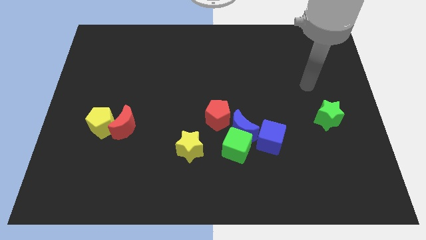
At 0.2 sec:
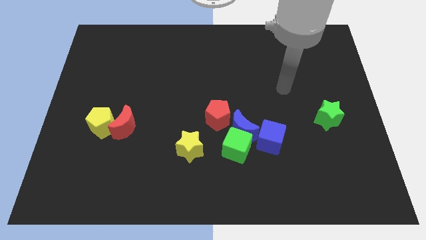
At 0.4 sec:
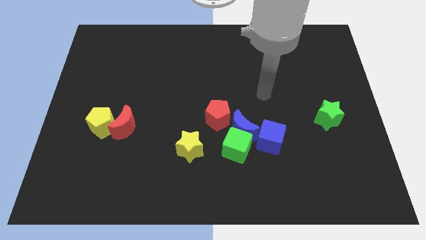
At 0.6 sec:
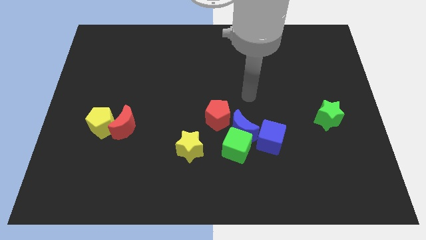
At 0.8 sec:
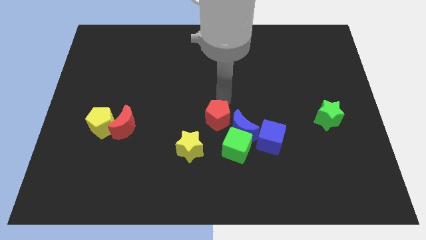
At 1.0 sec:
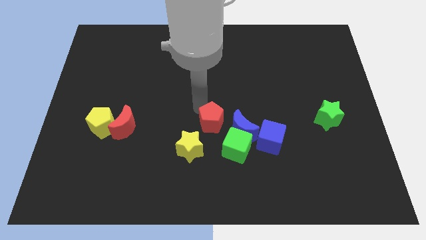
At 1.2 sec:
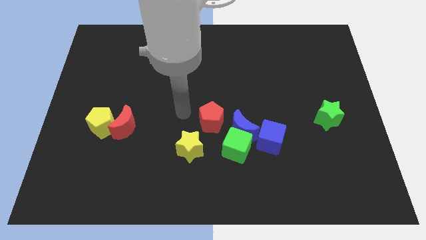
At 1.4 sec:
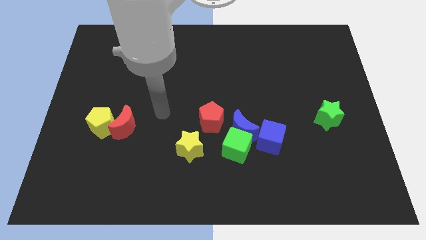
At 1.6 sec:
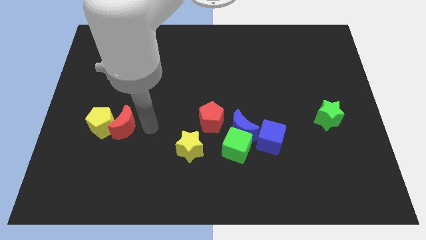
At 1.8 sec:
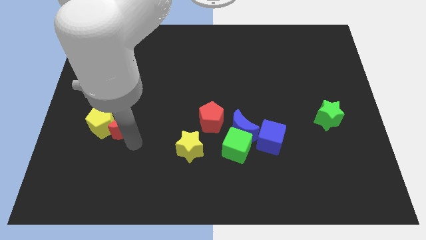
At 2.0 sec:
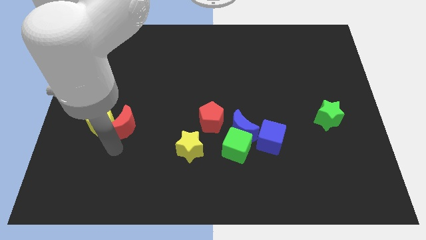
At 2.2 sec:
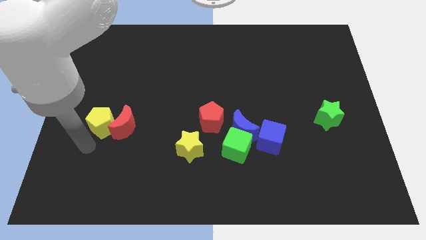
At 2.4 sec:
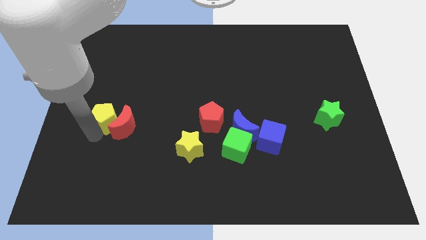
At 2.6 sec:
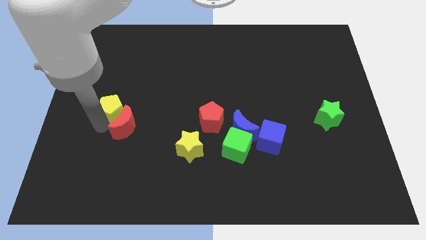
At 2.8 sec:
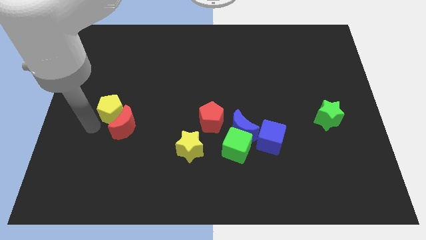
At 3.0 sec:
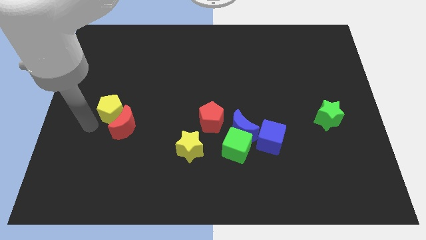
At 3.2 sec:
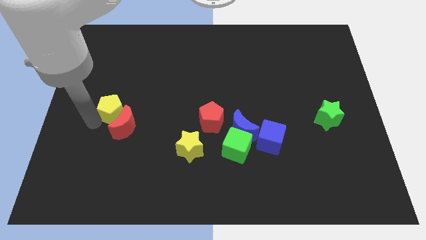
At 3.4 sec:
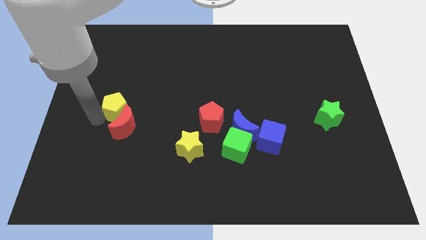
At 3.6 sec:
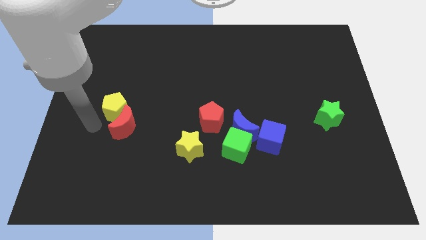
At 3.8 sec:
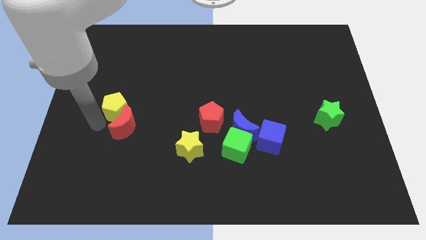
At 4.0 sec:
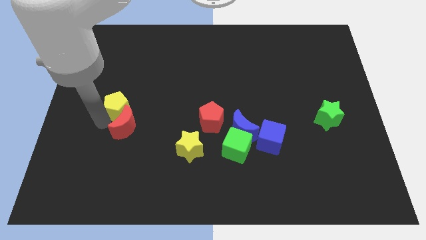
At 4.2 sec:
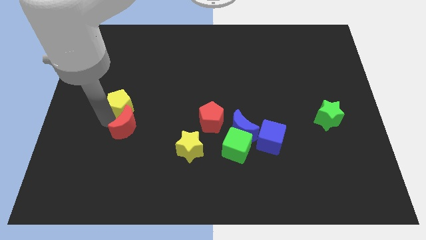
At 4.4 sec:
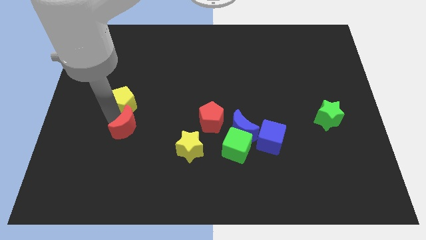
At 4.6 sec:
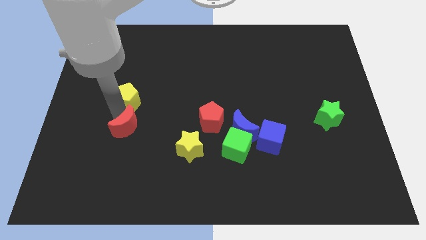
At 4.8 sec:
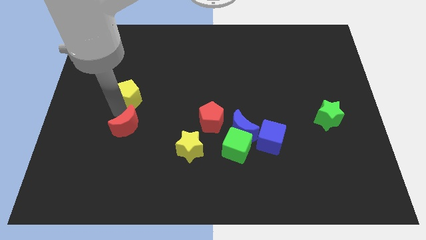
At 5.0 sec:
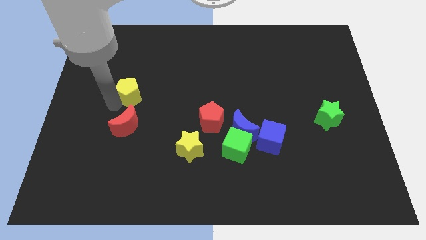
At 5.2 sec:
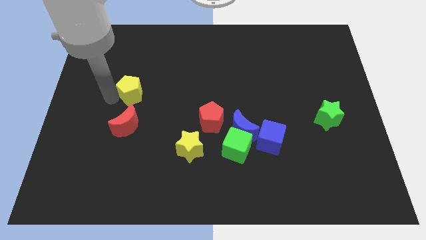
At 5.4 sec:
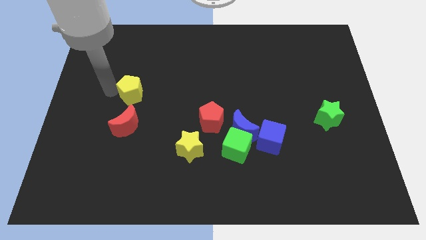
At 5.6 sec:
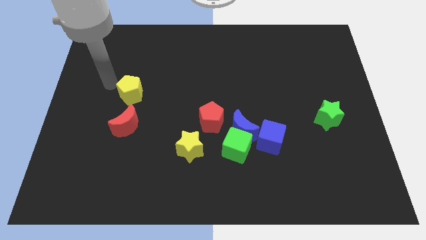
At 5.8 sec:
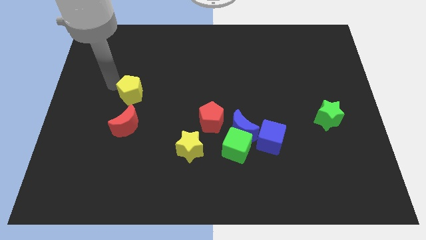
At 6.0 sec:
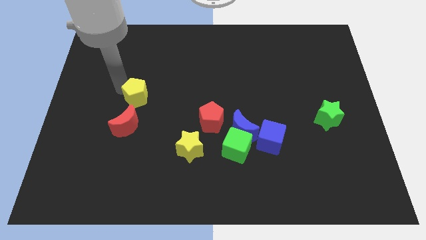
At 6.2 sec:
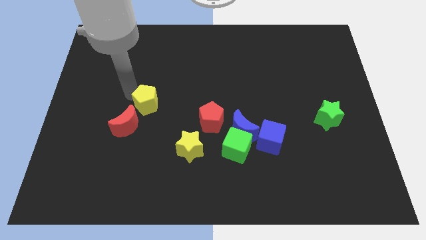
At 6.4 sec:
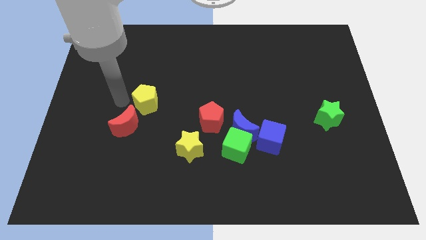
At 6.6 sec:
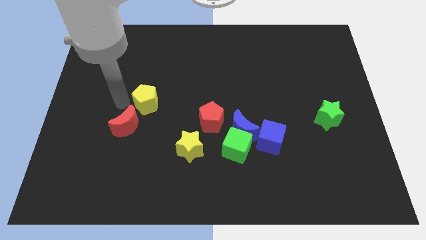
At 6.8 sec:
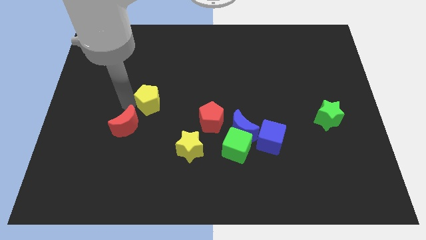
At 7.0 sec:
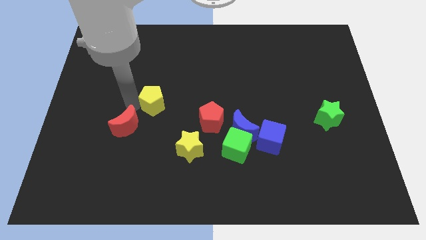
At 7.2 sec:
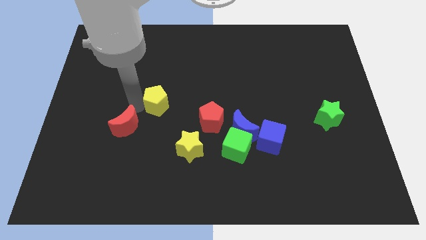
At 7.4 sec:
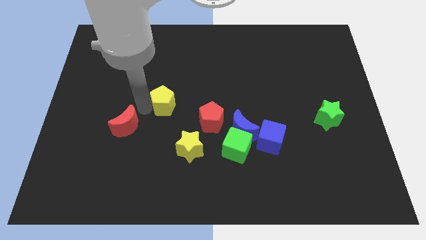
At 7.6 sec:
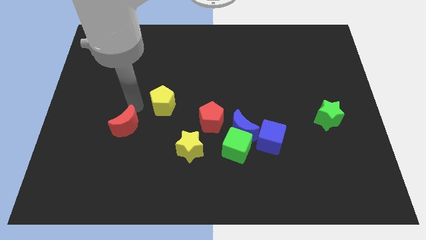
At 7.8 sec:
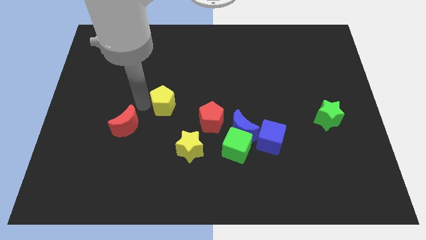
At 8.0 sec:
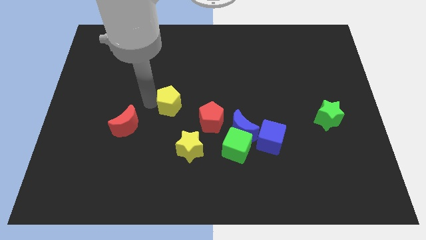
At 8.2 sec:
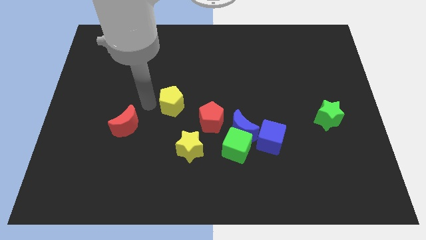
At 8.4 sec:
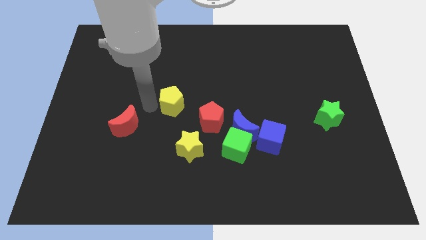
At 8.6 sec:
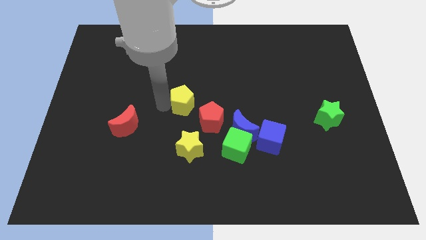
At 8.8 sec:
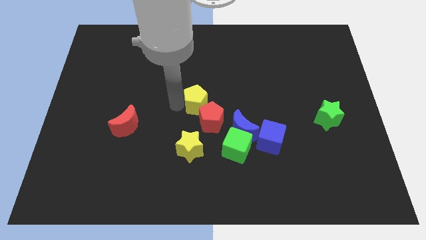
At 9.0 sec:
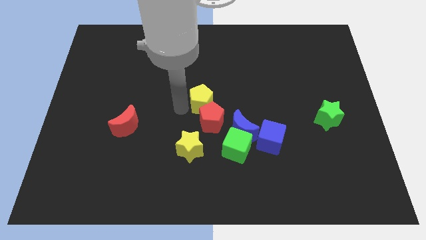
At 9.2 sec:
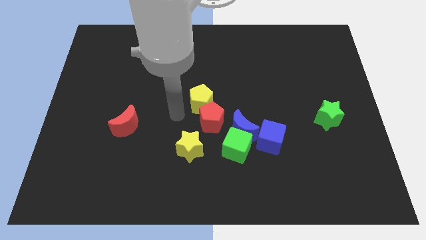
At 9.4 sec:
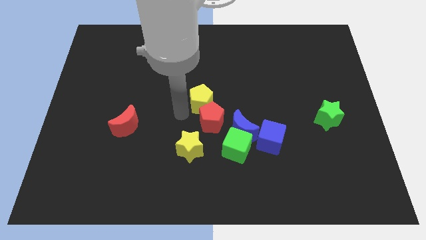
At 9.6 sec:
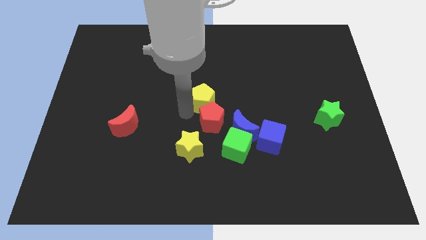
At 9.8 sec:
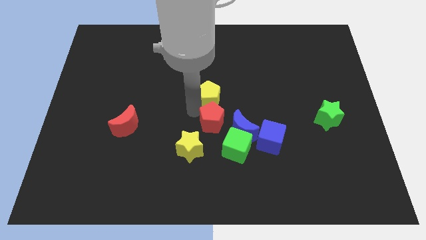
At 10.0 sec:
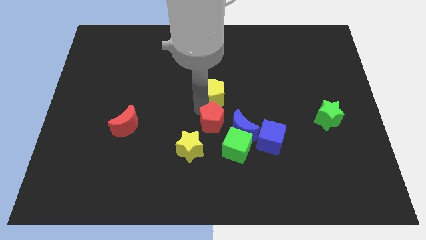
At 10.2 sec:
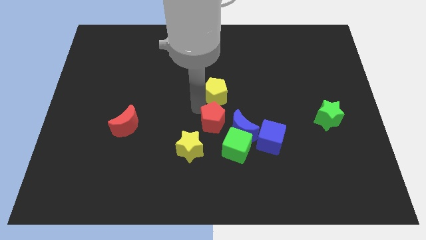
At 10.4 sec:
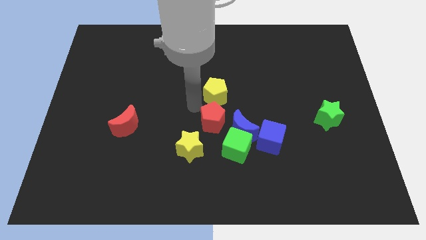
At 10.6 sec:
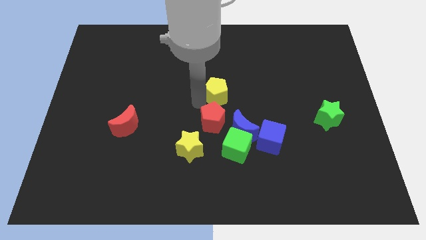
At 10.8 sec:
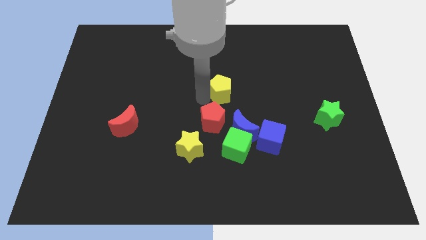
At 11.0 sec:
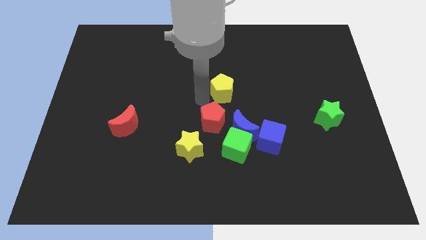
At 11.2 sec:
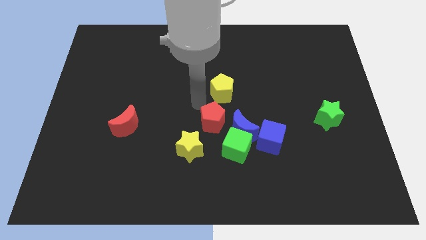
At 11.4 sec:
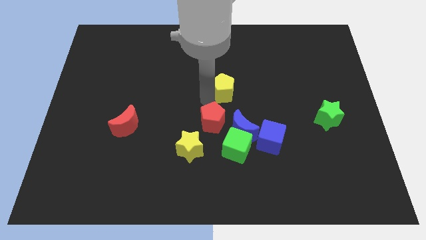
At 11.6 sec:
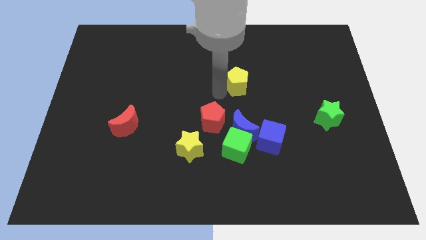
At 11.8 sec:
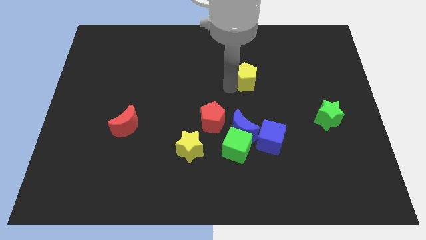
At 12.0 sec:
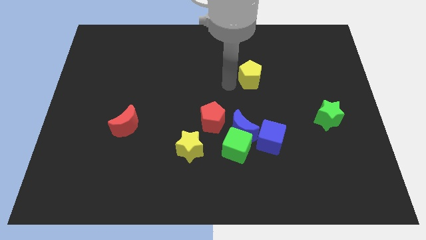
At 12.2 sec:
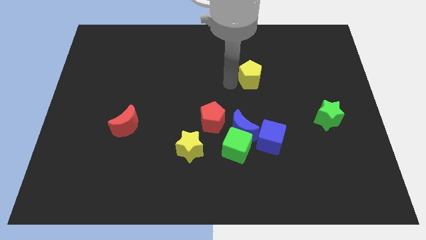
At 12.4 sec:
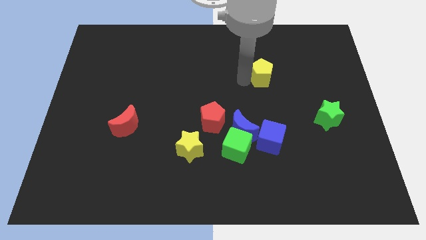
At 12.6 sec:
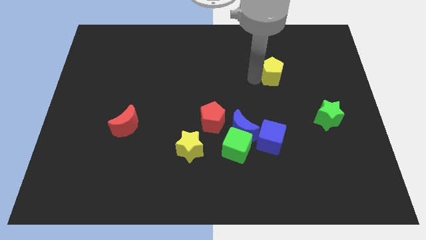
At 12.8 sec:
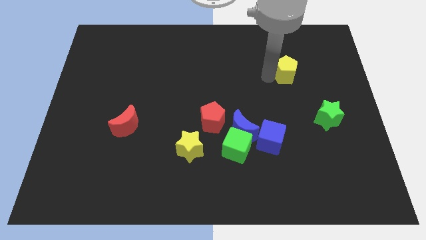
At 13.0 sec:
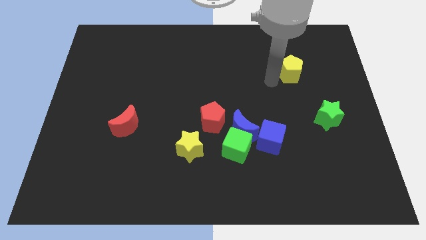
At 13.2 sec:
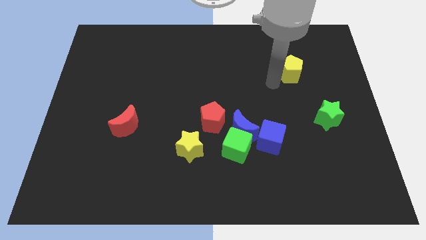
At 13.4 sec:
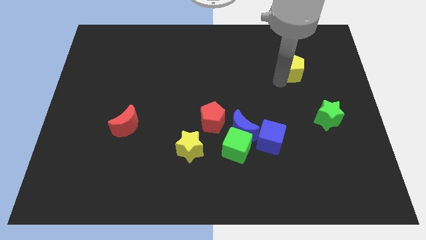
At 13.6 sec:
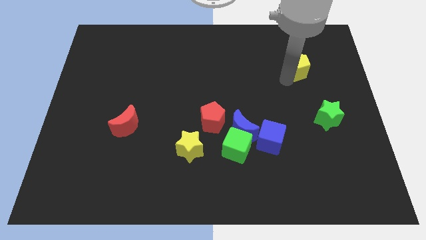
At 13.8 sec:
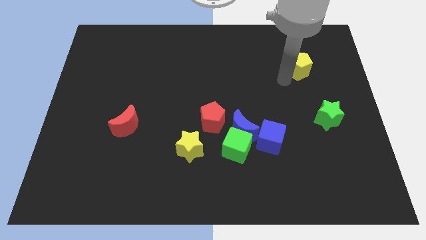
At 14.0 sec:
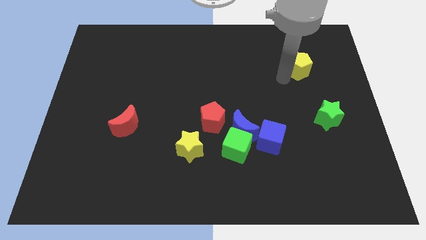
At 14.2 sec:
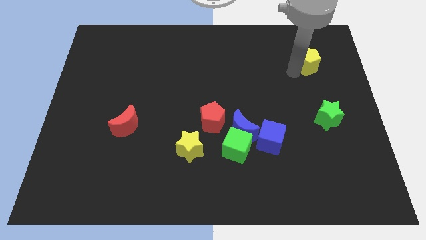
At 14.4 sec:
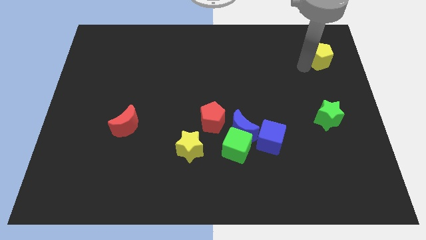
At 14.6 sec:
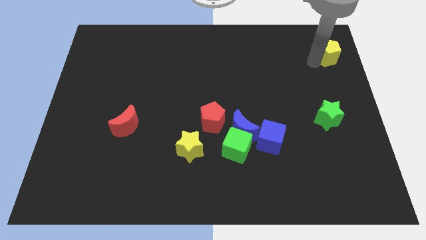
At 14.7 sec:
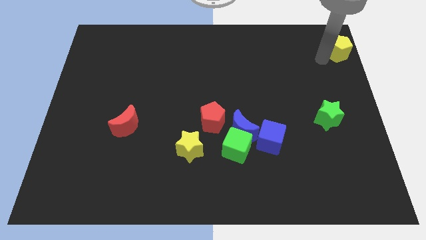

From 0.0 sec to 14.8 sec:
slide the yellow pentagon to the upper right corner
